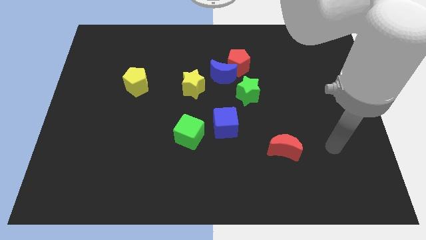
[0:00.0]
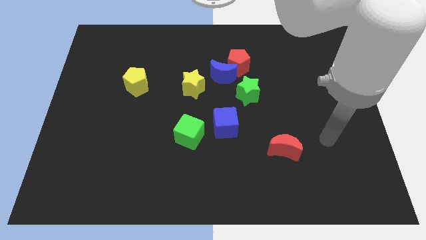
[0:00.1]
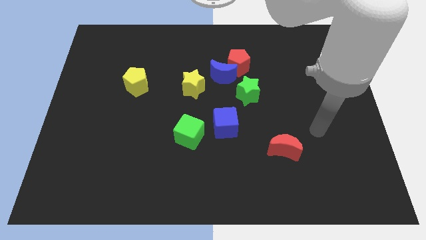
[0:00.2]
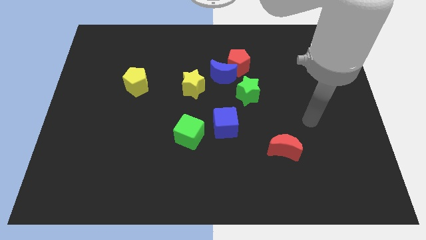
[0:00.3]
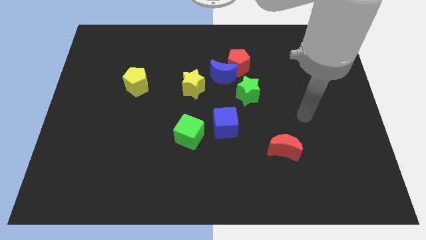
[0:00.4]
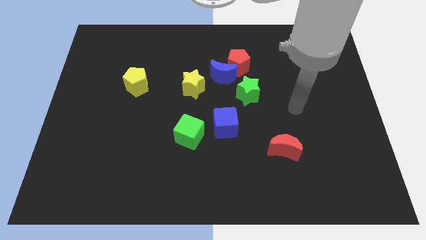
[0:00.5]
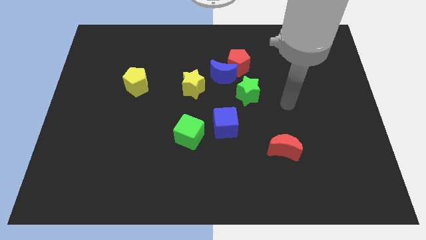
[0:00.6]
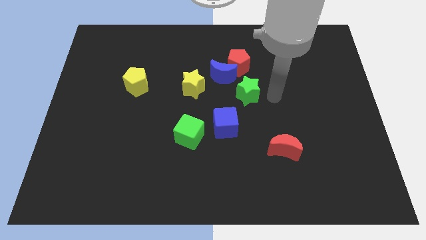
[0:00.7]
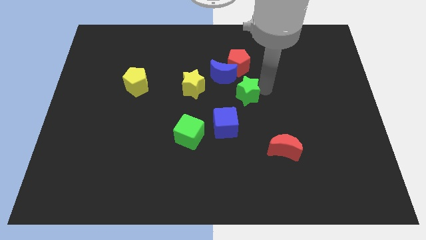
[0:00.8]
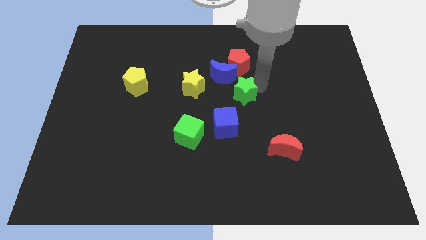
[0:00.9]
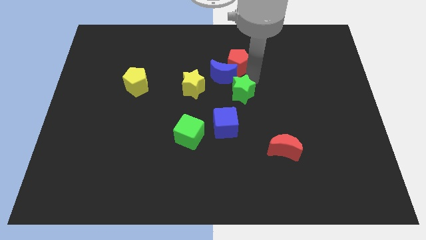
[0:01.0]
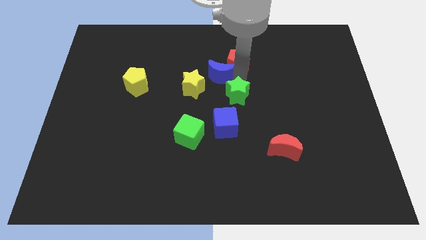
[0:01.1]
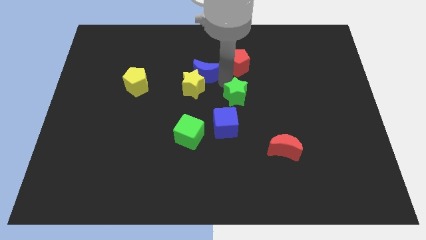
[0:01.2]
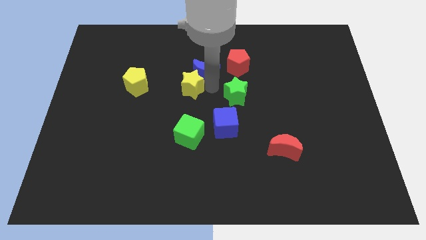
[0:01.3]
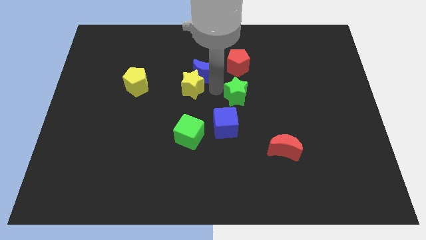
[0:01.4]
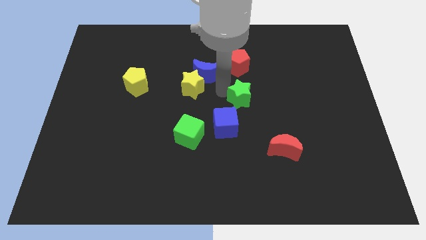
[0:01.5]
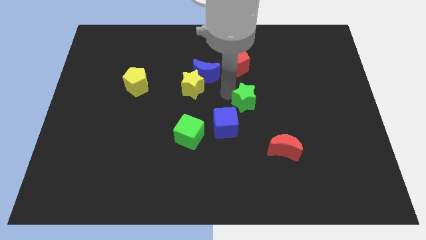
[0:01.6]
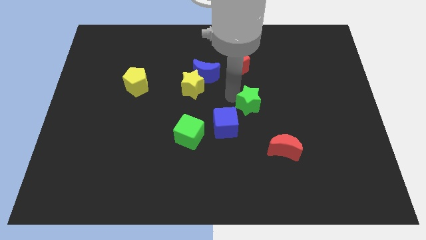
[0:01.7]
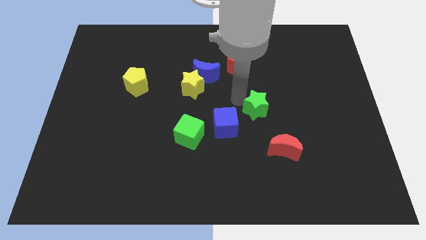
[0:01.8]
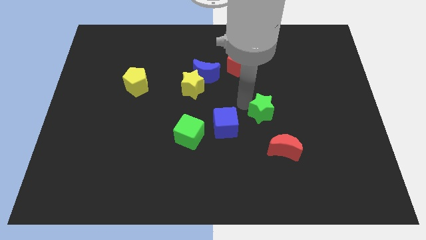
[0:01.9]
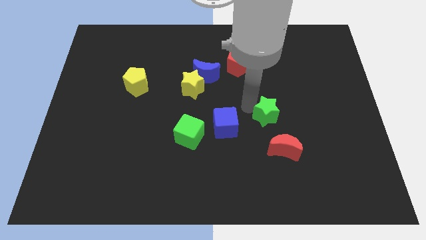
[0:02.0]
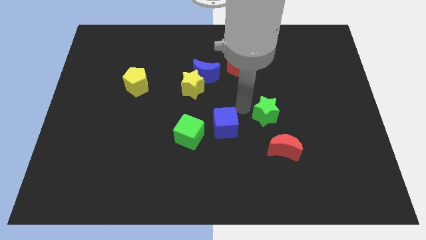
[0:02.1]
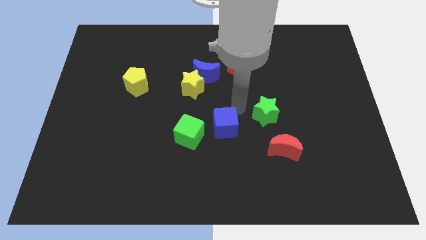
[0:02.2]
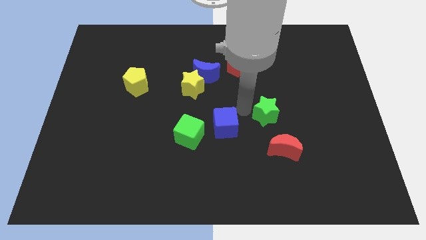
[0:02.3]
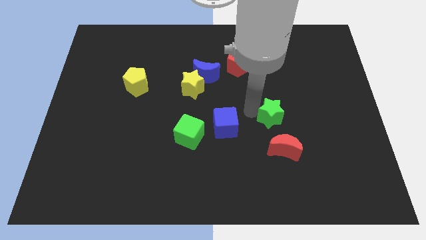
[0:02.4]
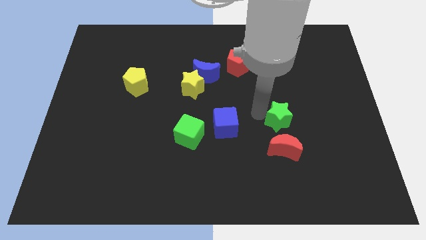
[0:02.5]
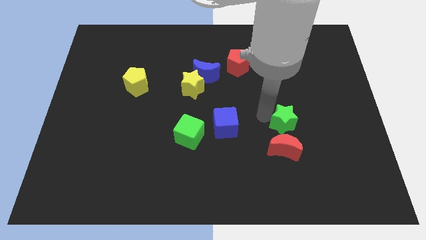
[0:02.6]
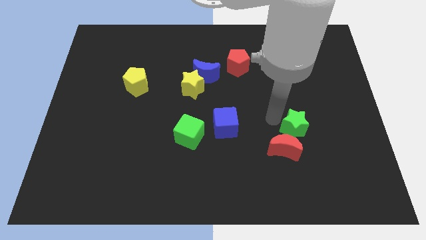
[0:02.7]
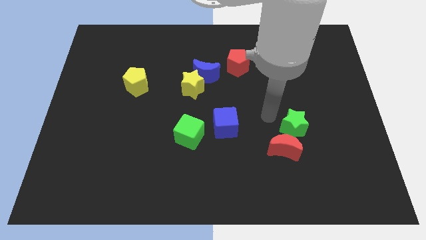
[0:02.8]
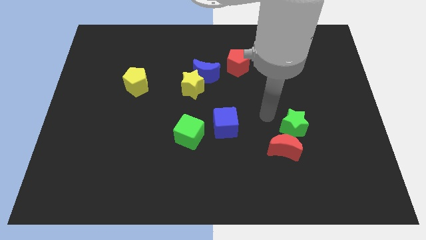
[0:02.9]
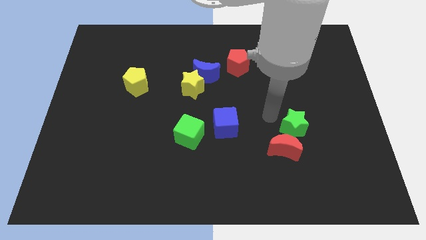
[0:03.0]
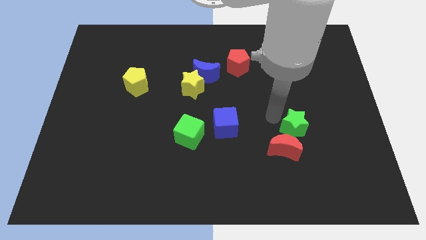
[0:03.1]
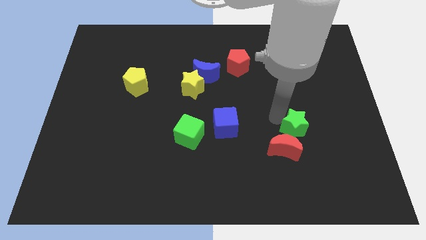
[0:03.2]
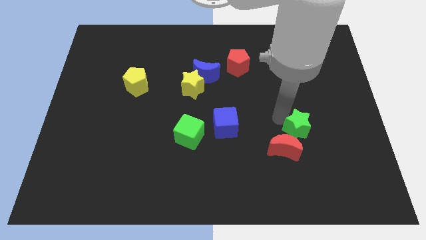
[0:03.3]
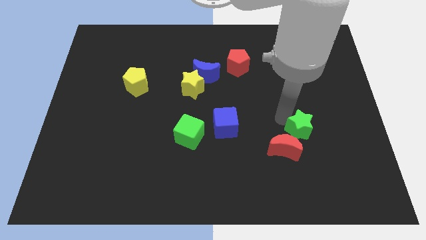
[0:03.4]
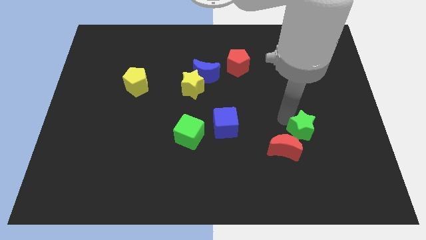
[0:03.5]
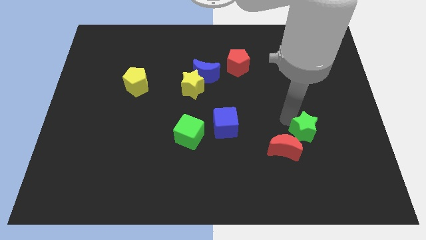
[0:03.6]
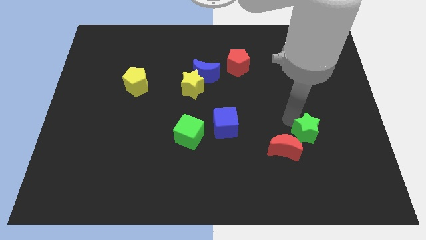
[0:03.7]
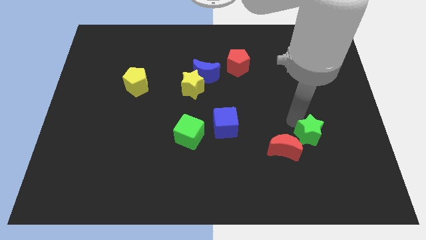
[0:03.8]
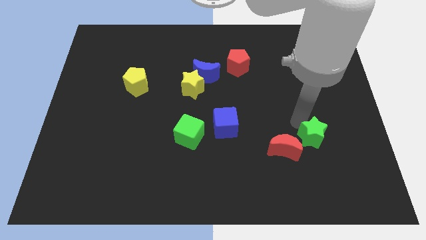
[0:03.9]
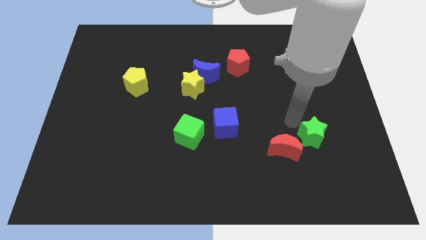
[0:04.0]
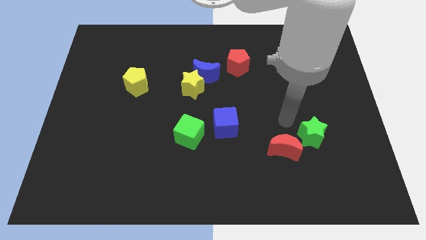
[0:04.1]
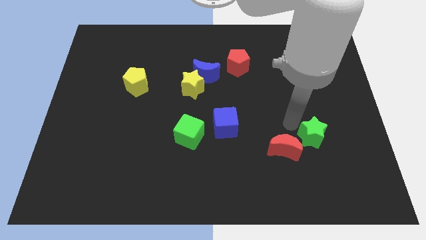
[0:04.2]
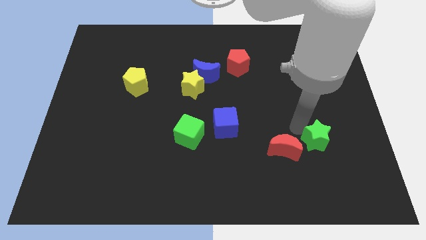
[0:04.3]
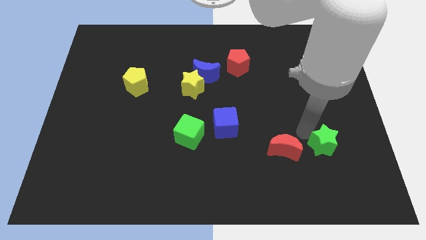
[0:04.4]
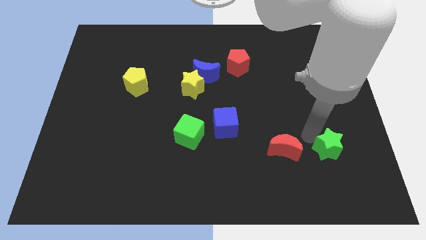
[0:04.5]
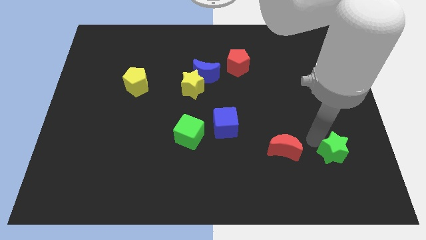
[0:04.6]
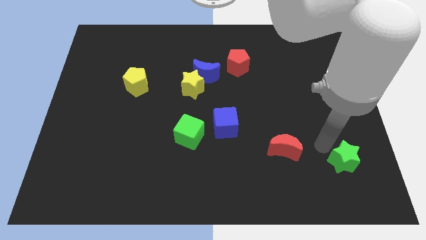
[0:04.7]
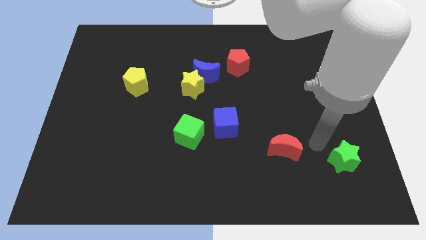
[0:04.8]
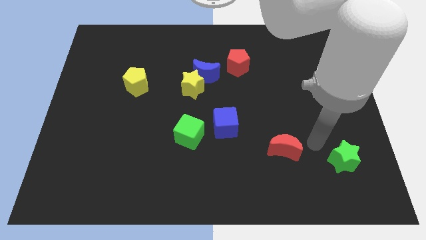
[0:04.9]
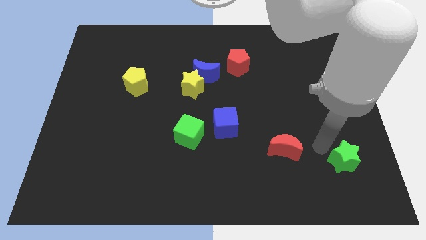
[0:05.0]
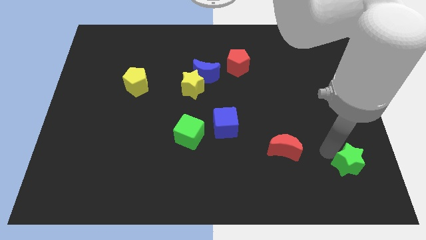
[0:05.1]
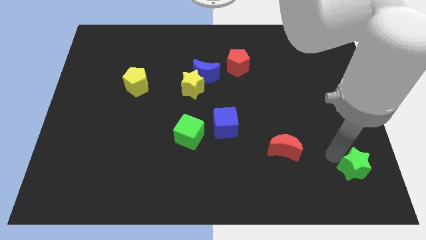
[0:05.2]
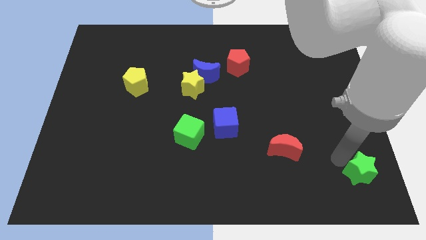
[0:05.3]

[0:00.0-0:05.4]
put the green star to the bottom right corner

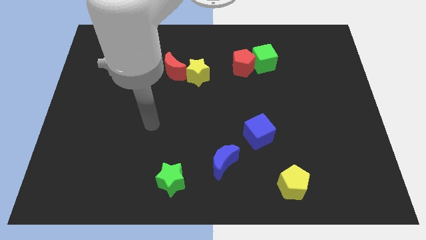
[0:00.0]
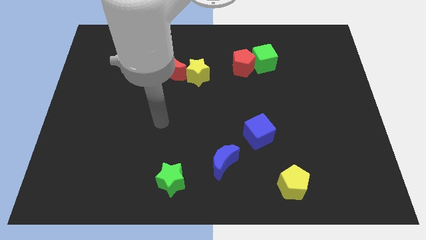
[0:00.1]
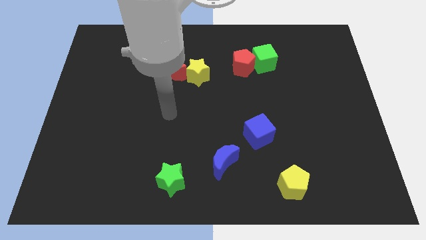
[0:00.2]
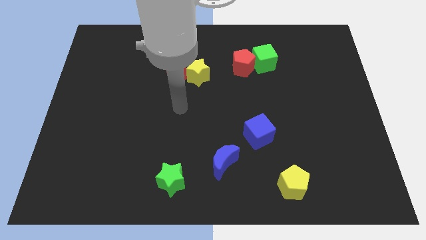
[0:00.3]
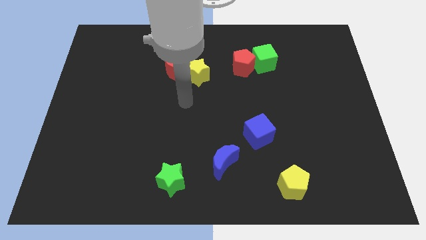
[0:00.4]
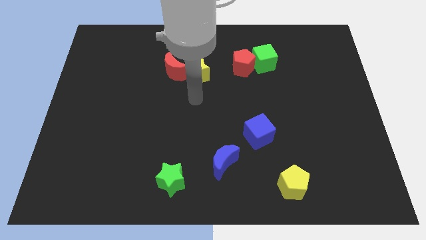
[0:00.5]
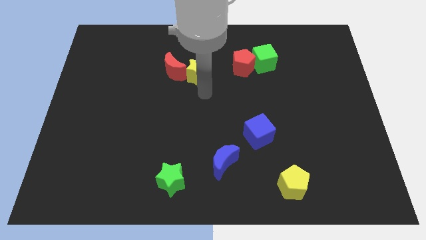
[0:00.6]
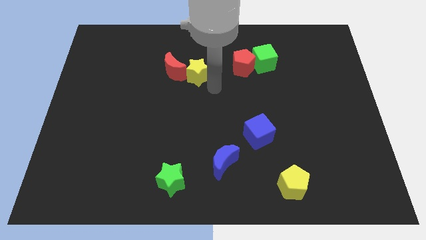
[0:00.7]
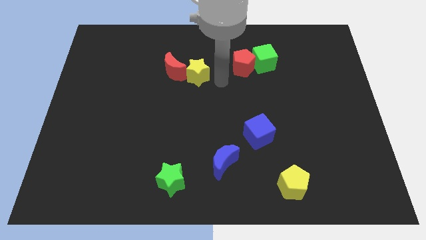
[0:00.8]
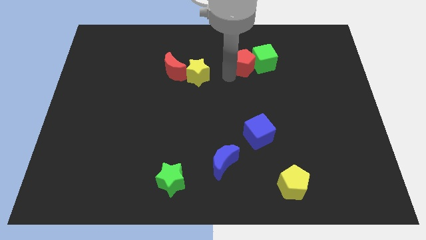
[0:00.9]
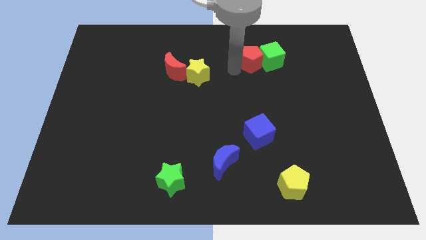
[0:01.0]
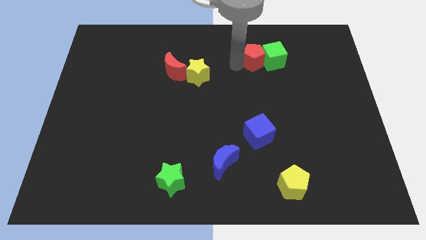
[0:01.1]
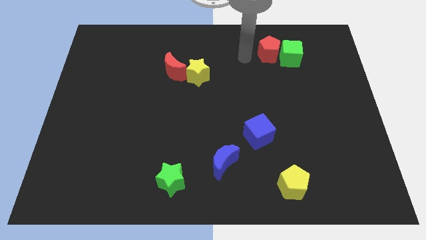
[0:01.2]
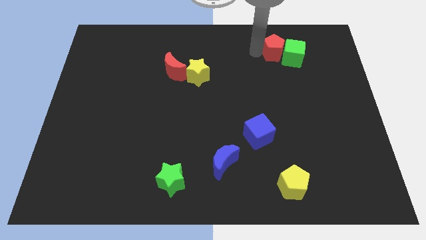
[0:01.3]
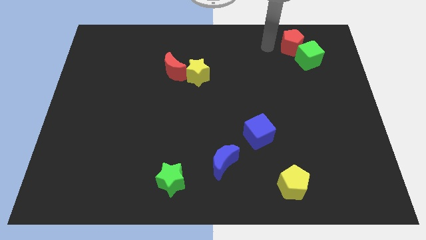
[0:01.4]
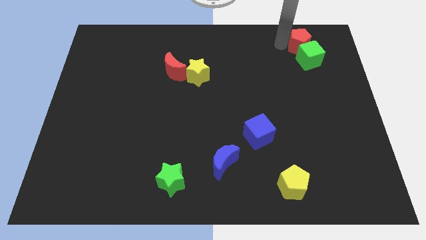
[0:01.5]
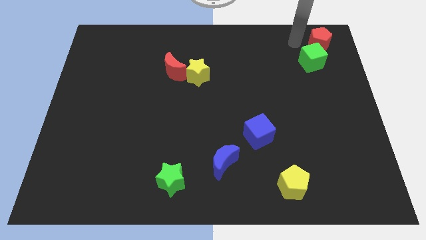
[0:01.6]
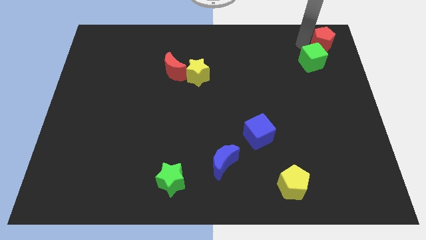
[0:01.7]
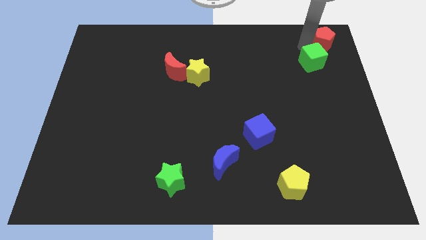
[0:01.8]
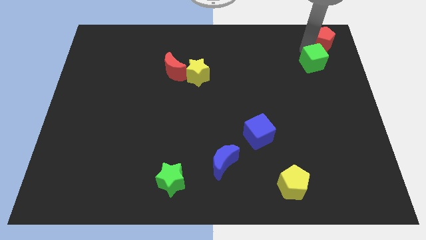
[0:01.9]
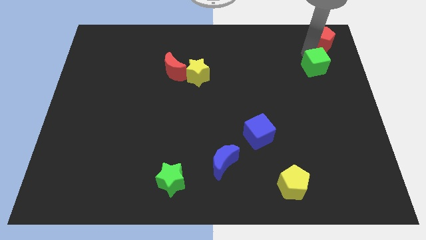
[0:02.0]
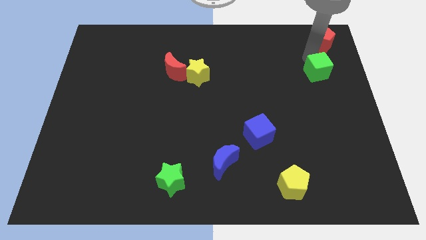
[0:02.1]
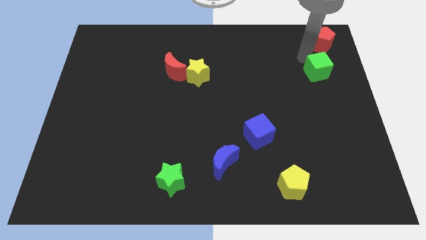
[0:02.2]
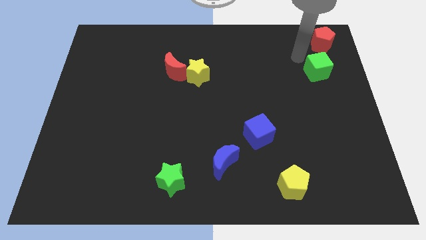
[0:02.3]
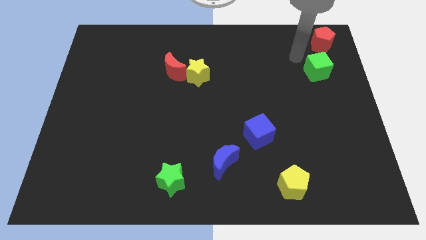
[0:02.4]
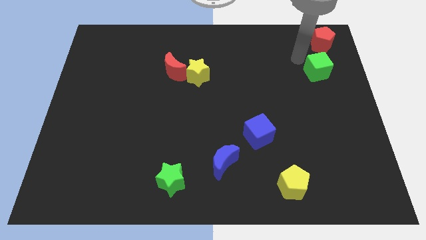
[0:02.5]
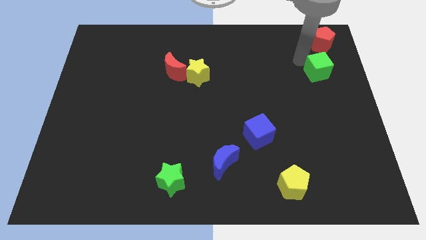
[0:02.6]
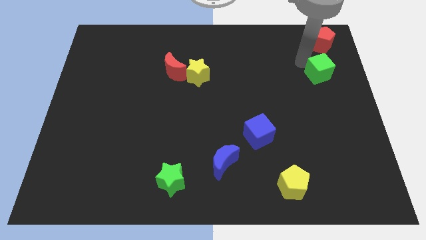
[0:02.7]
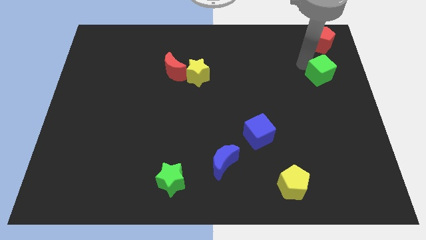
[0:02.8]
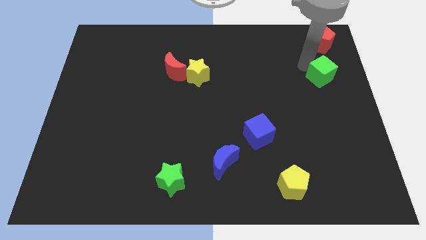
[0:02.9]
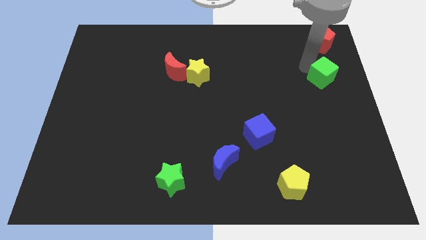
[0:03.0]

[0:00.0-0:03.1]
slide the green cube to the right side
